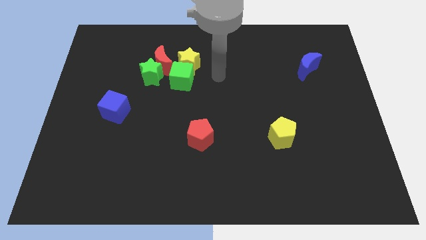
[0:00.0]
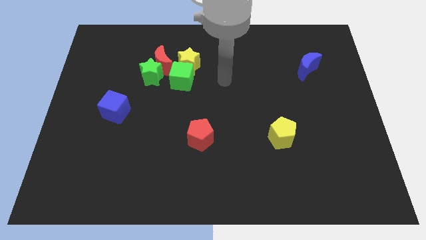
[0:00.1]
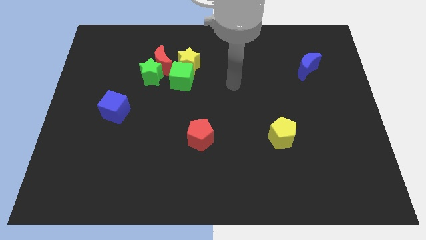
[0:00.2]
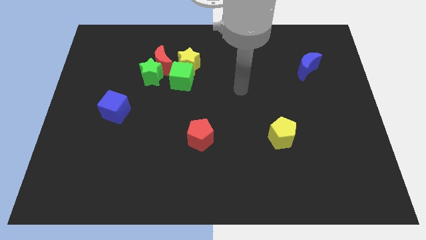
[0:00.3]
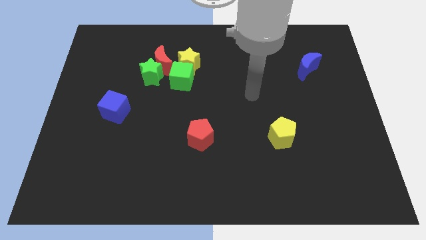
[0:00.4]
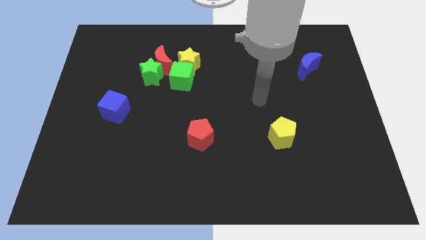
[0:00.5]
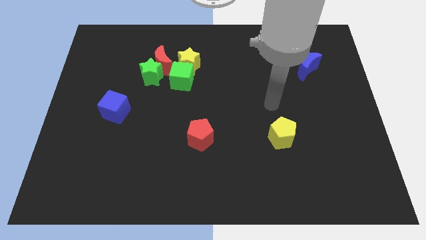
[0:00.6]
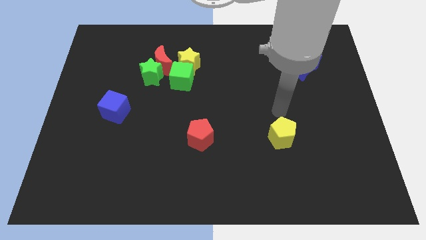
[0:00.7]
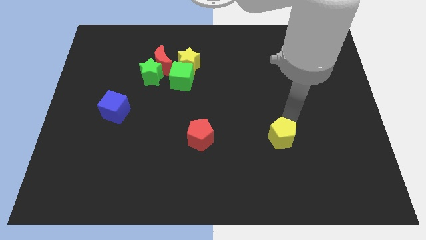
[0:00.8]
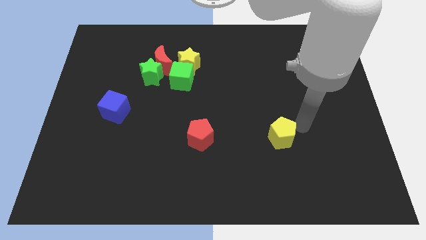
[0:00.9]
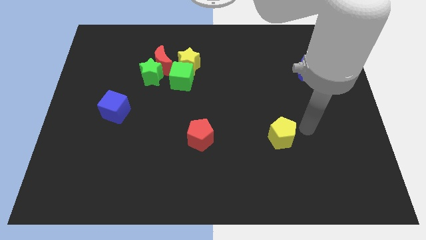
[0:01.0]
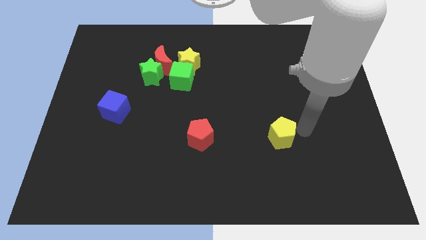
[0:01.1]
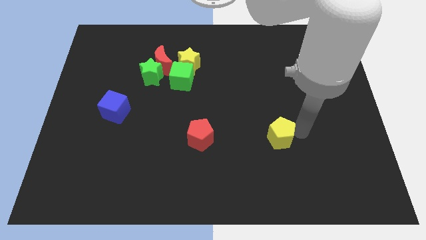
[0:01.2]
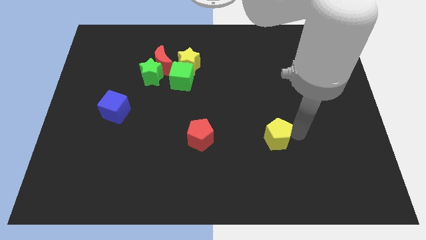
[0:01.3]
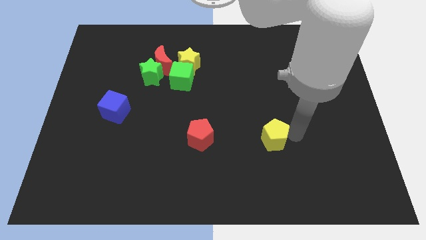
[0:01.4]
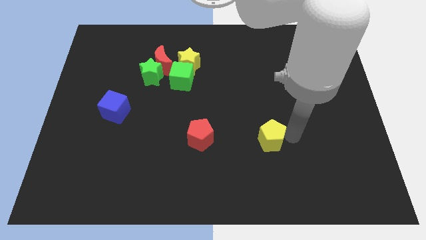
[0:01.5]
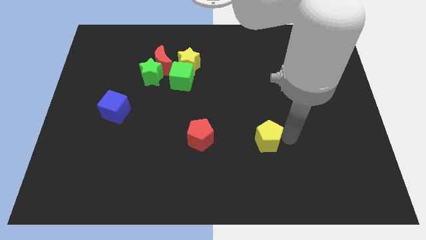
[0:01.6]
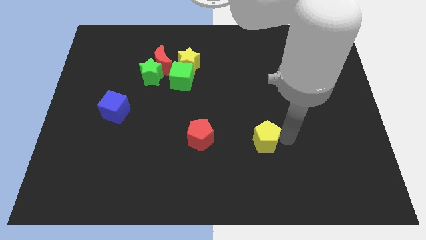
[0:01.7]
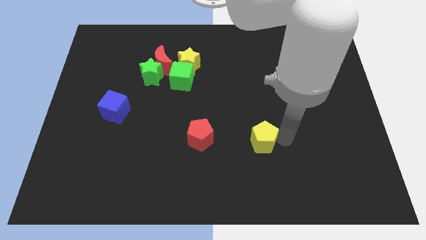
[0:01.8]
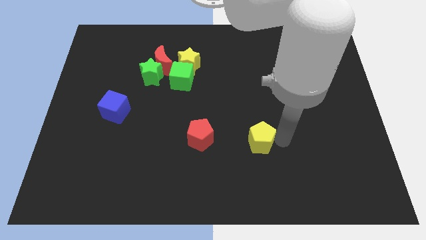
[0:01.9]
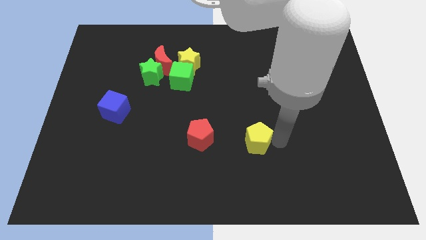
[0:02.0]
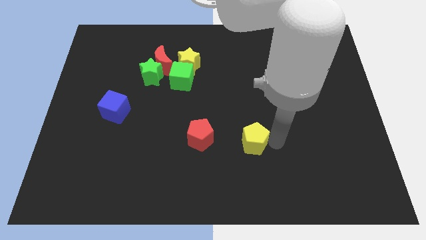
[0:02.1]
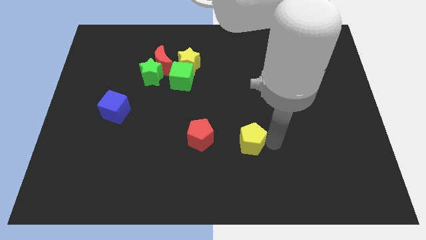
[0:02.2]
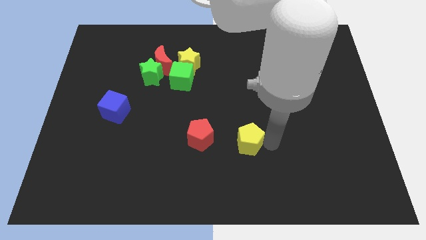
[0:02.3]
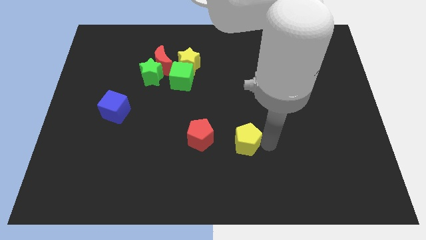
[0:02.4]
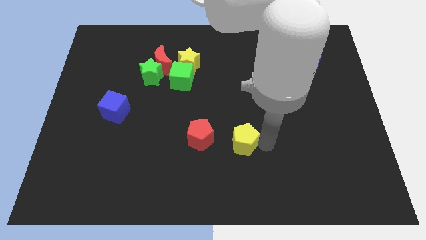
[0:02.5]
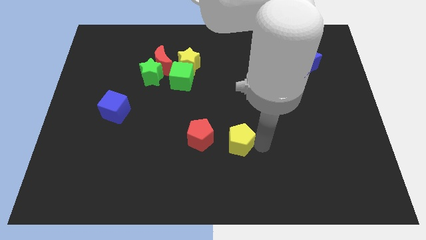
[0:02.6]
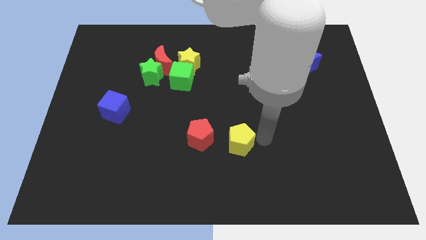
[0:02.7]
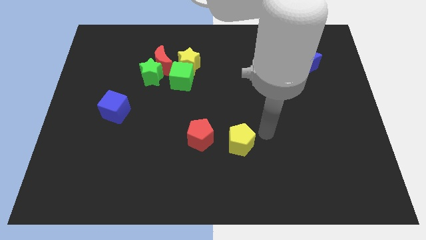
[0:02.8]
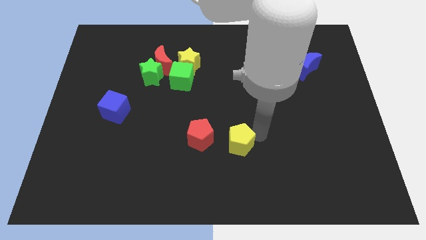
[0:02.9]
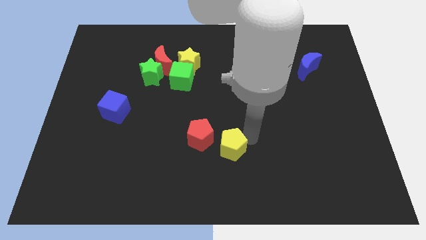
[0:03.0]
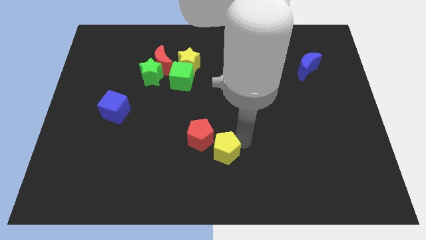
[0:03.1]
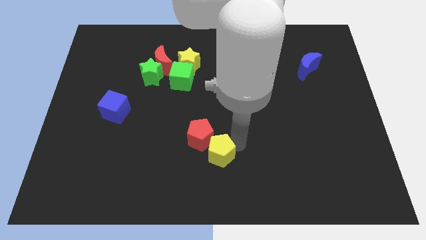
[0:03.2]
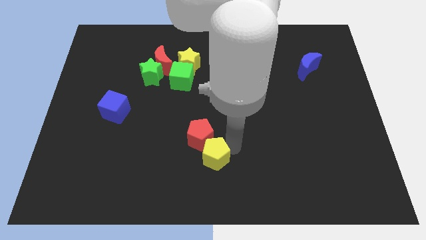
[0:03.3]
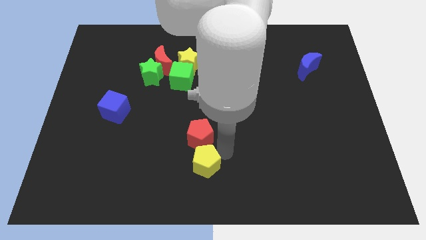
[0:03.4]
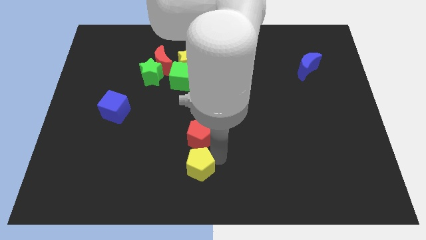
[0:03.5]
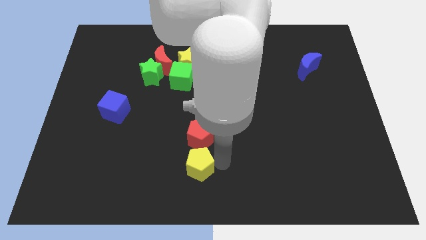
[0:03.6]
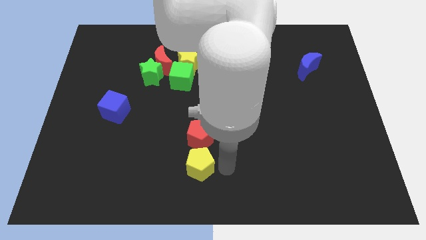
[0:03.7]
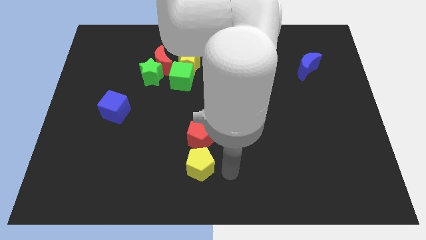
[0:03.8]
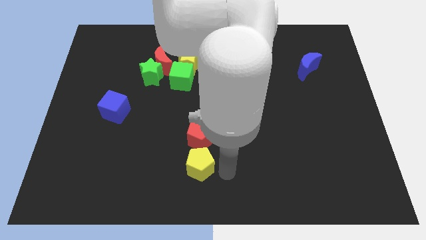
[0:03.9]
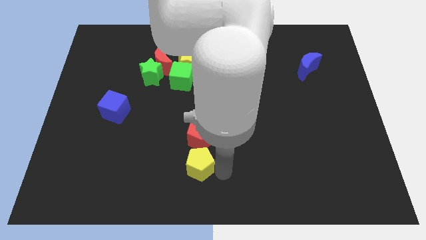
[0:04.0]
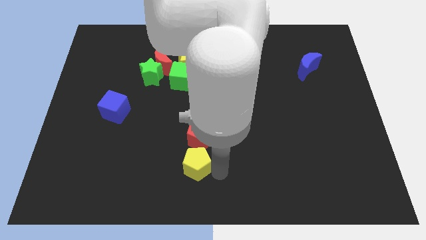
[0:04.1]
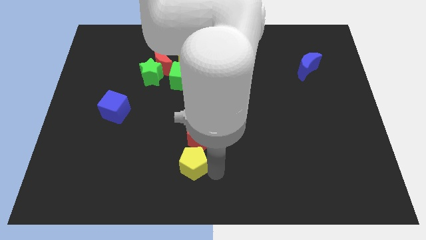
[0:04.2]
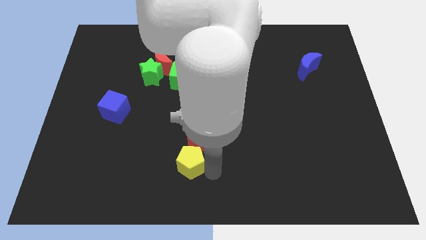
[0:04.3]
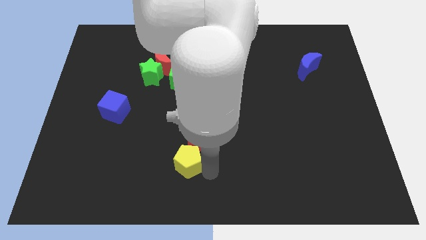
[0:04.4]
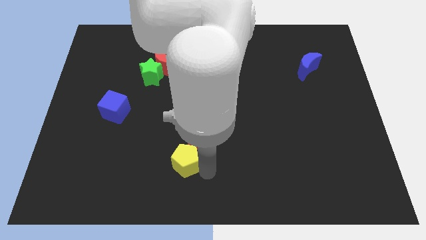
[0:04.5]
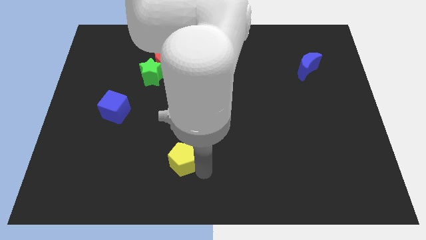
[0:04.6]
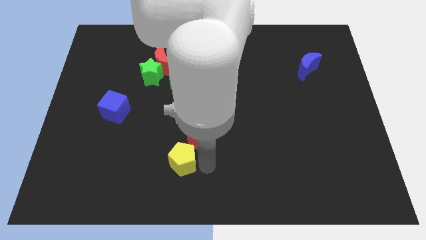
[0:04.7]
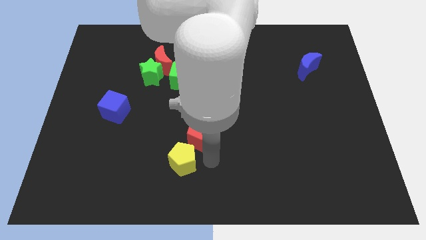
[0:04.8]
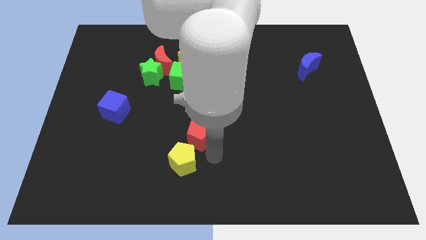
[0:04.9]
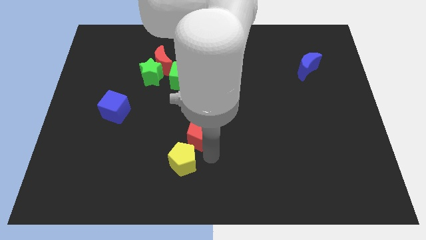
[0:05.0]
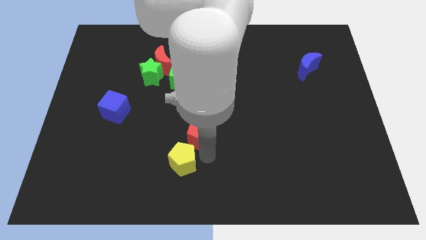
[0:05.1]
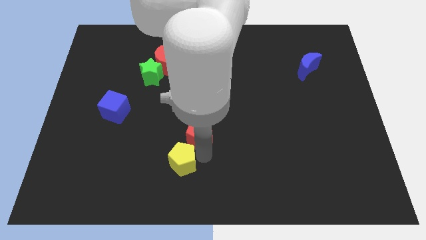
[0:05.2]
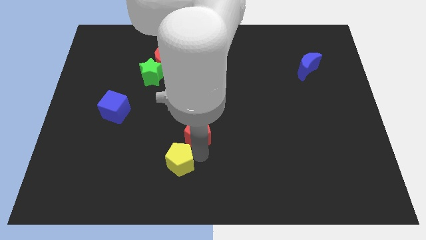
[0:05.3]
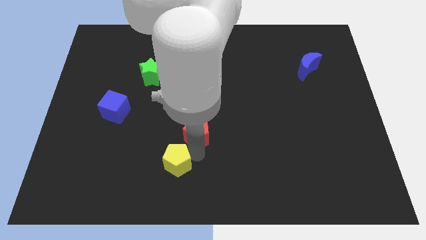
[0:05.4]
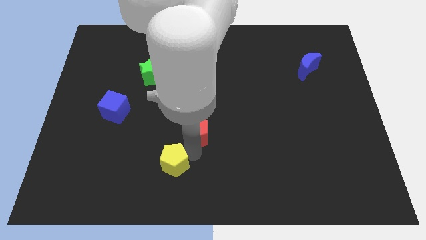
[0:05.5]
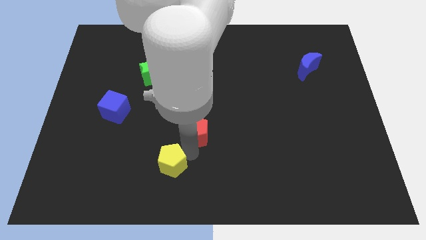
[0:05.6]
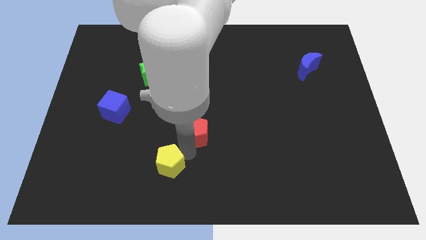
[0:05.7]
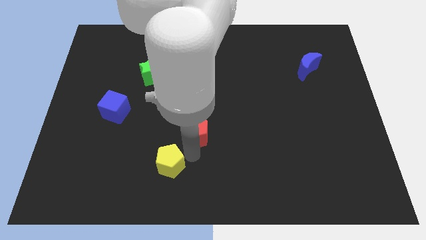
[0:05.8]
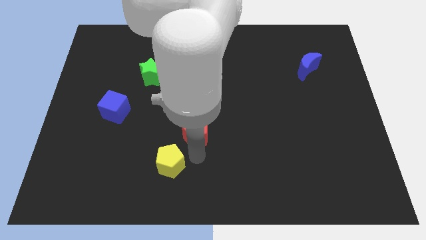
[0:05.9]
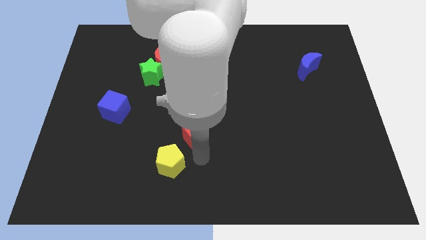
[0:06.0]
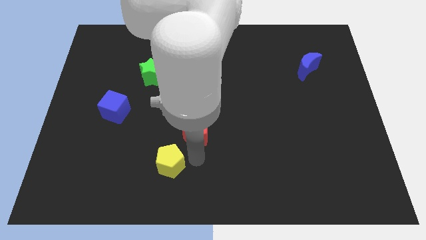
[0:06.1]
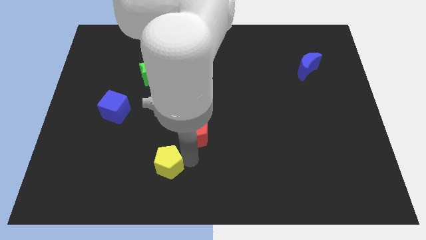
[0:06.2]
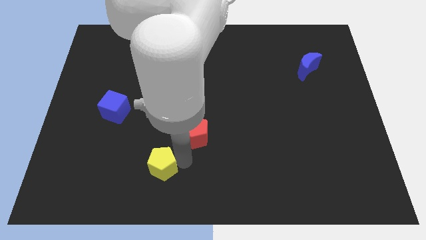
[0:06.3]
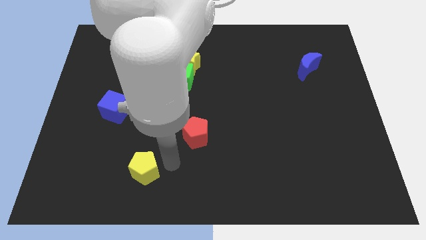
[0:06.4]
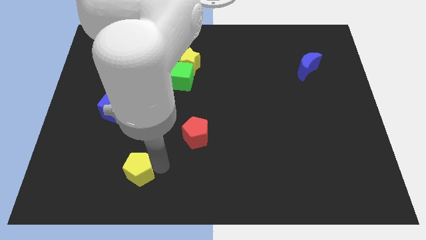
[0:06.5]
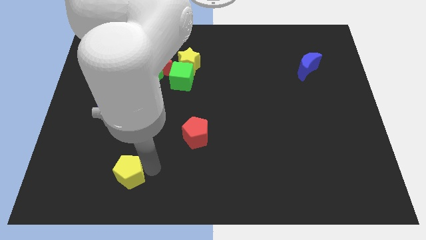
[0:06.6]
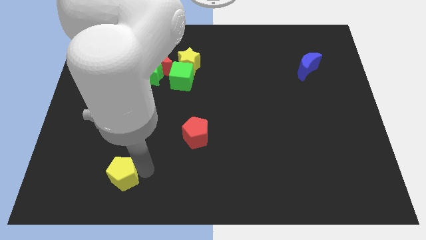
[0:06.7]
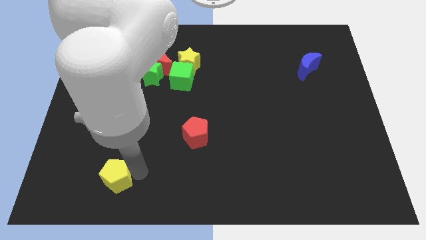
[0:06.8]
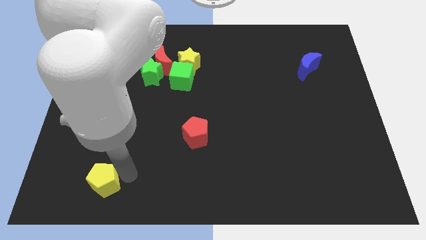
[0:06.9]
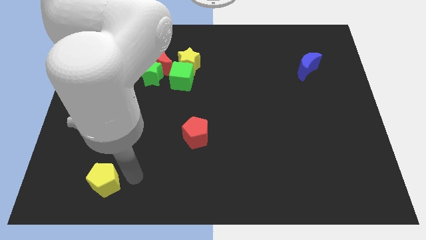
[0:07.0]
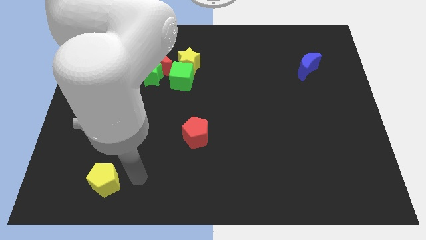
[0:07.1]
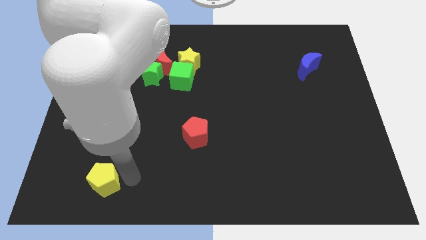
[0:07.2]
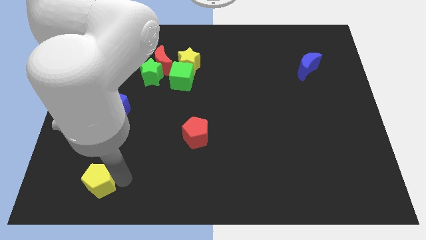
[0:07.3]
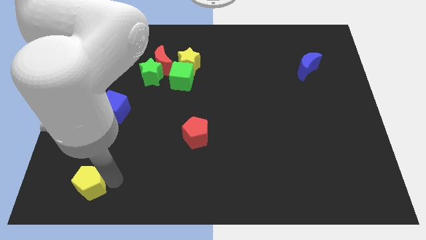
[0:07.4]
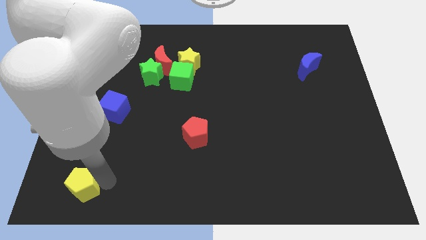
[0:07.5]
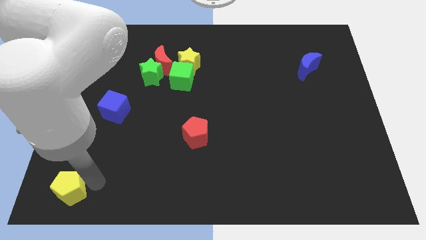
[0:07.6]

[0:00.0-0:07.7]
push the yellow pentagon to the bottom left
